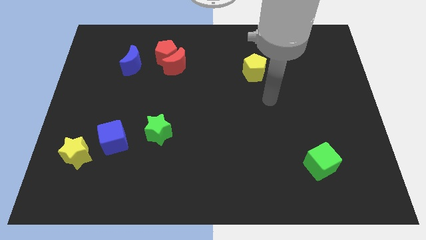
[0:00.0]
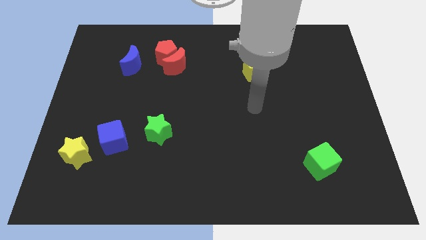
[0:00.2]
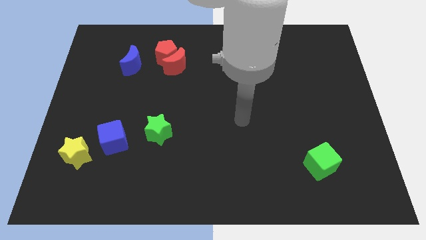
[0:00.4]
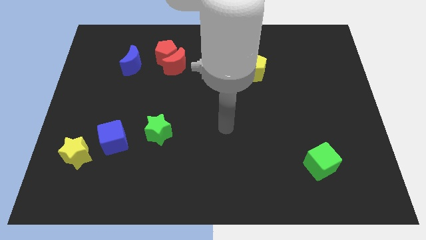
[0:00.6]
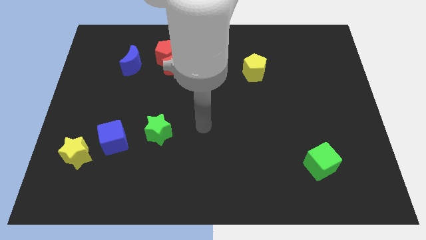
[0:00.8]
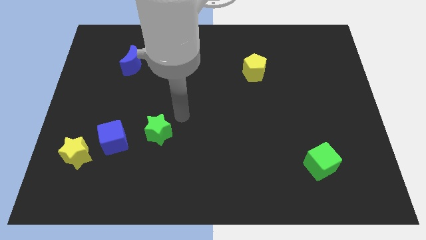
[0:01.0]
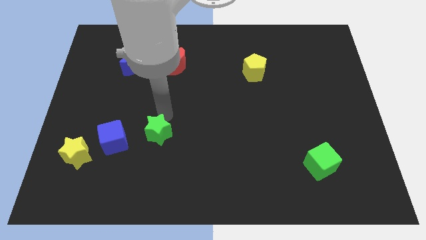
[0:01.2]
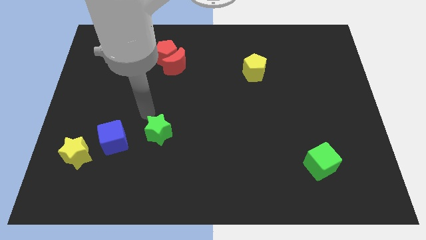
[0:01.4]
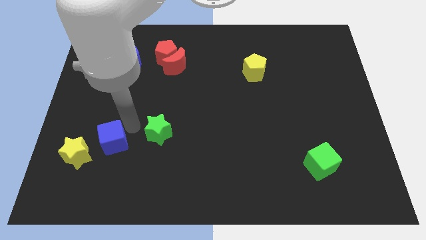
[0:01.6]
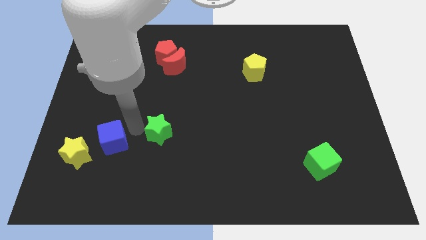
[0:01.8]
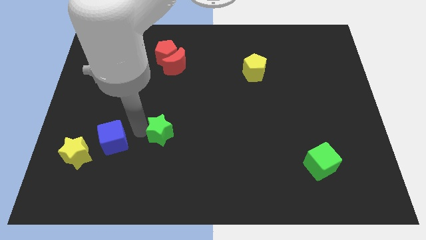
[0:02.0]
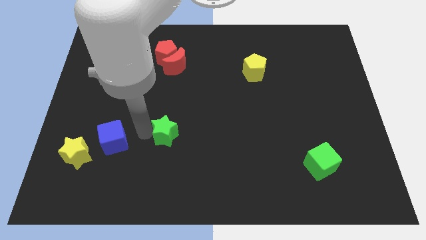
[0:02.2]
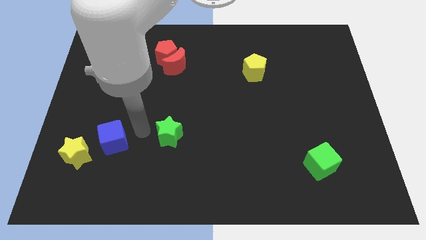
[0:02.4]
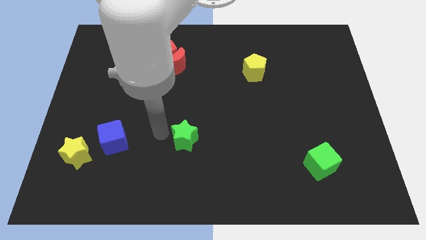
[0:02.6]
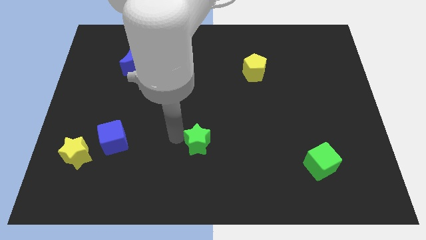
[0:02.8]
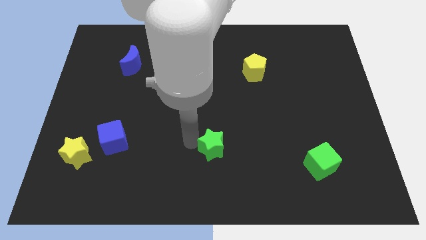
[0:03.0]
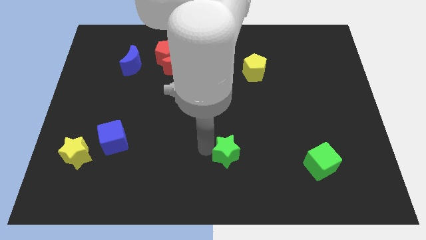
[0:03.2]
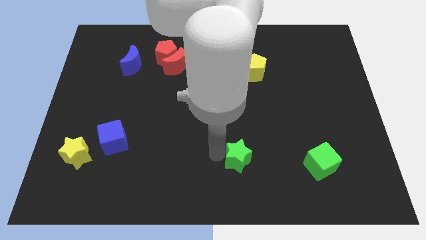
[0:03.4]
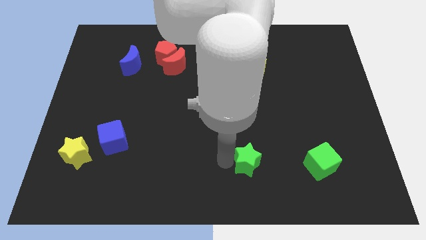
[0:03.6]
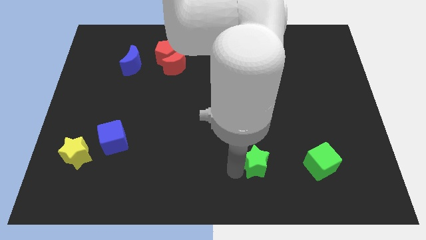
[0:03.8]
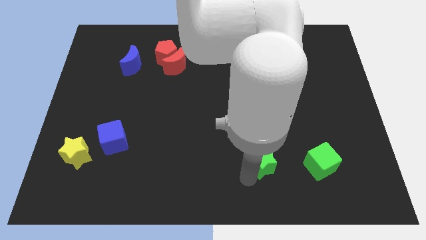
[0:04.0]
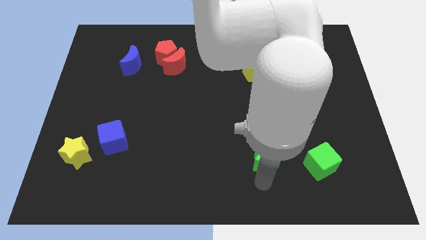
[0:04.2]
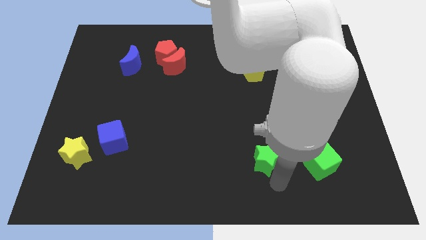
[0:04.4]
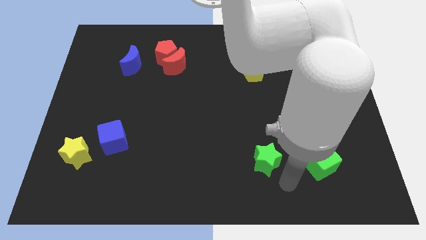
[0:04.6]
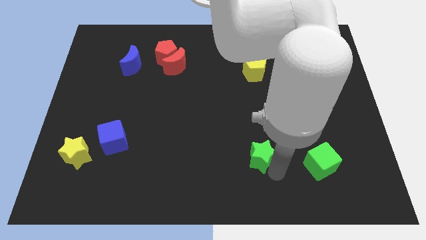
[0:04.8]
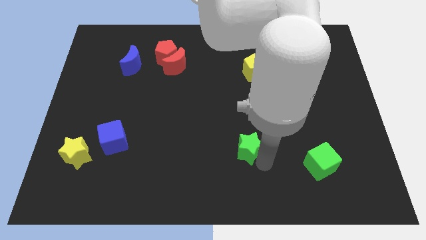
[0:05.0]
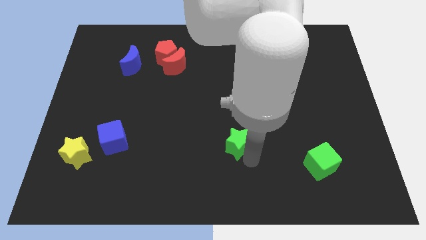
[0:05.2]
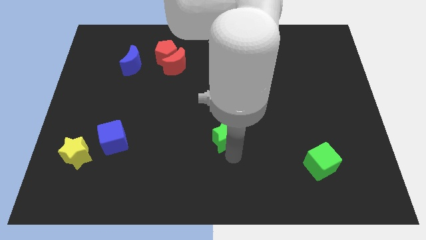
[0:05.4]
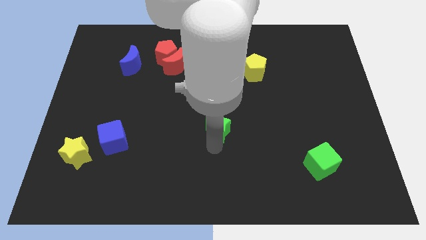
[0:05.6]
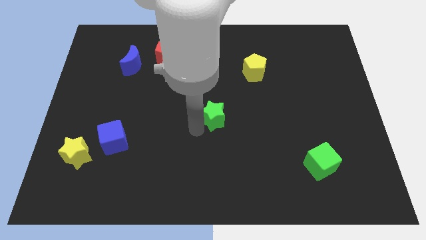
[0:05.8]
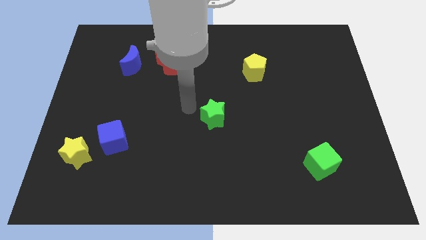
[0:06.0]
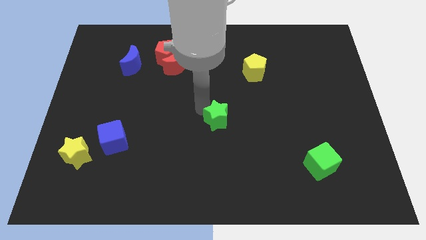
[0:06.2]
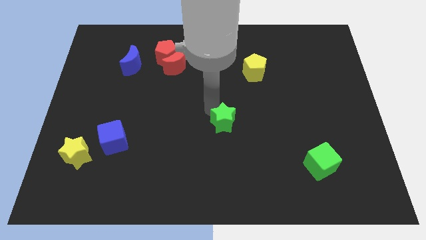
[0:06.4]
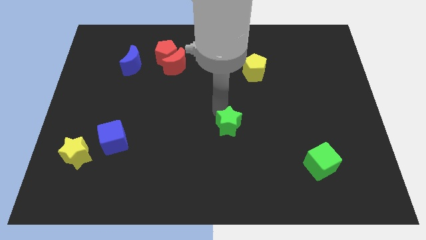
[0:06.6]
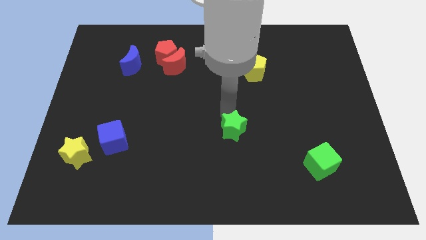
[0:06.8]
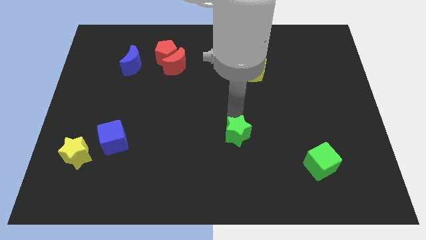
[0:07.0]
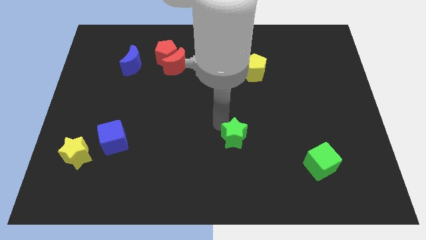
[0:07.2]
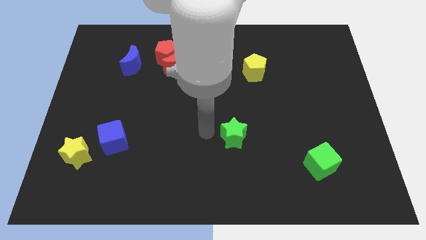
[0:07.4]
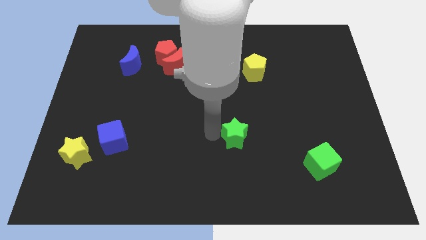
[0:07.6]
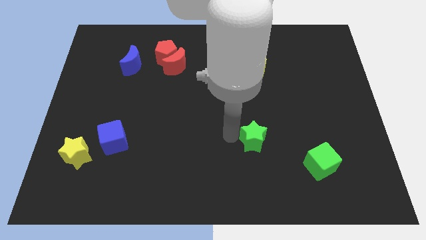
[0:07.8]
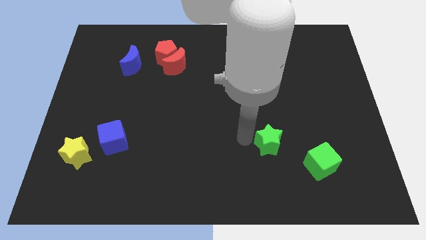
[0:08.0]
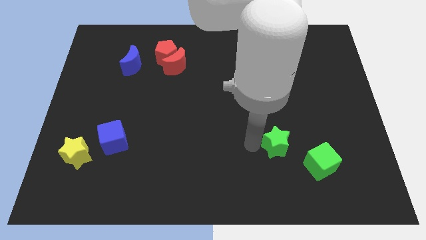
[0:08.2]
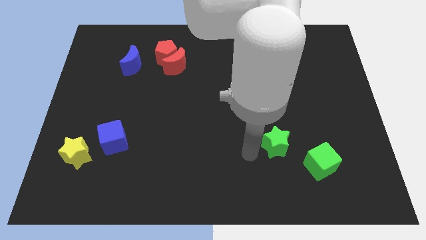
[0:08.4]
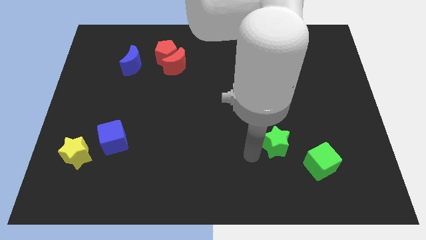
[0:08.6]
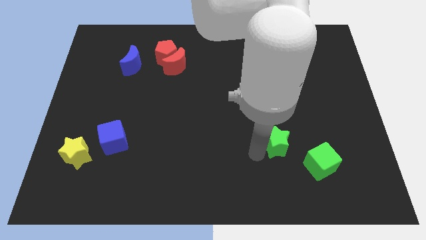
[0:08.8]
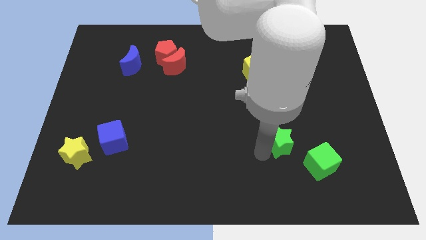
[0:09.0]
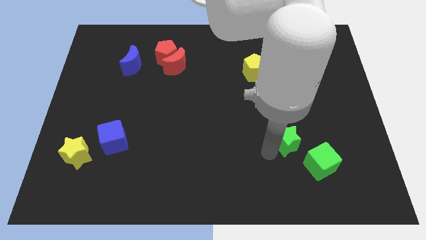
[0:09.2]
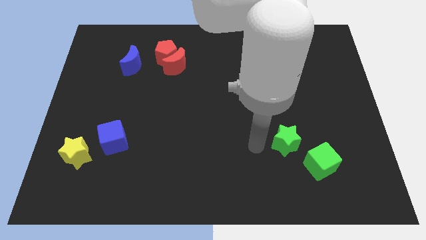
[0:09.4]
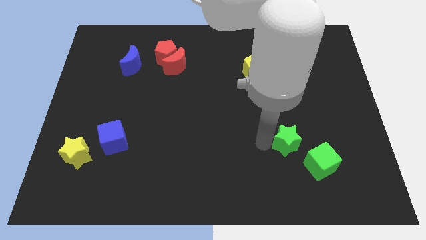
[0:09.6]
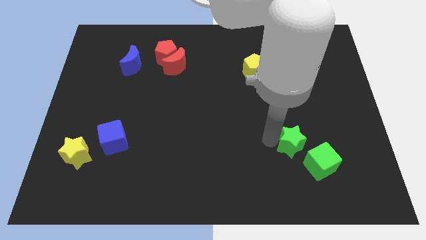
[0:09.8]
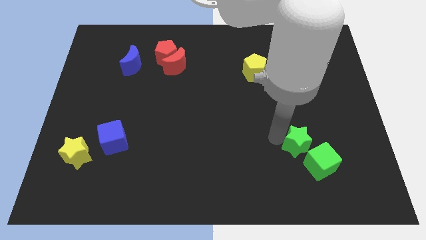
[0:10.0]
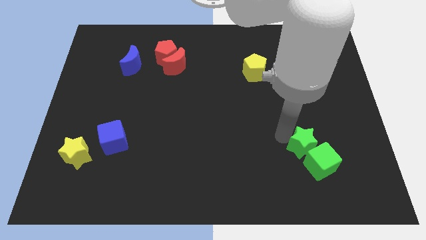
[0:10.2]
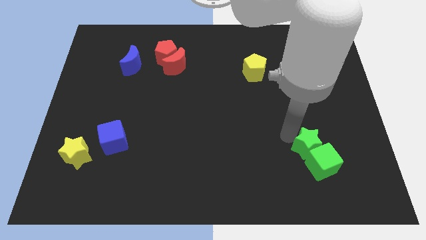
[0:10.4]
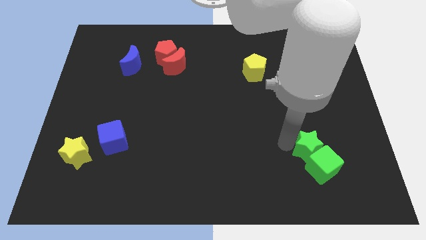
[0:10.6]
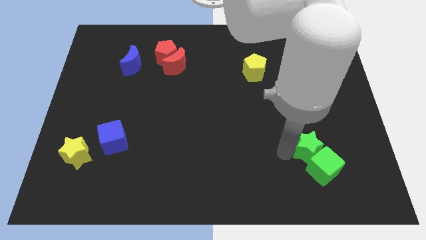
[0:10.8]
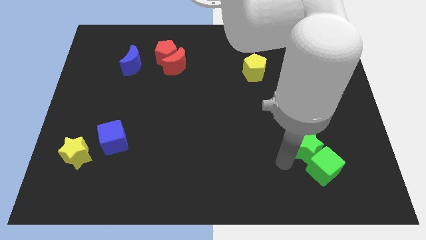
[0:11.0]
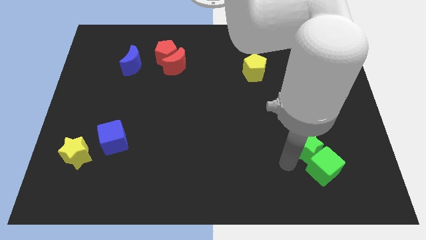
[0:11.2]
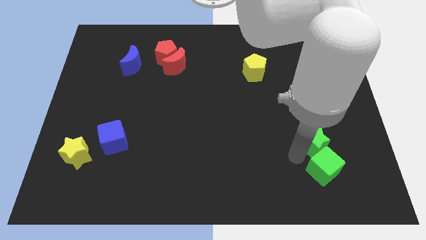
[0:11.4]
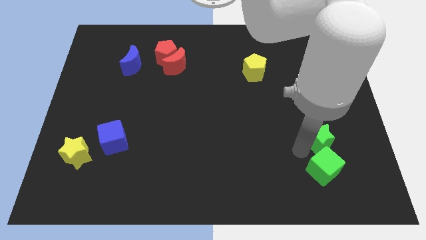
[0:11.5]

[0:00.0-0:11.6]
push the green star to the top right of the green cube

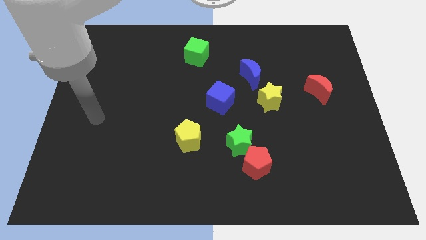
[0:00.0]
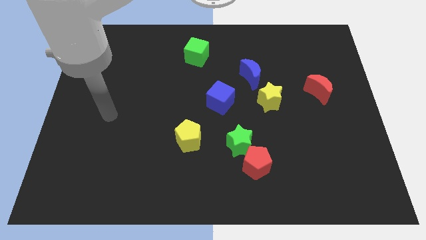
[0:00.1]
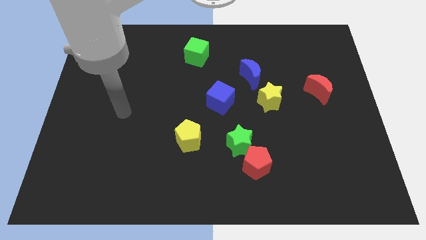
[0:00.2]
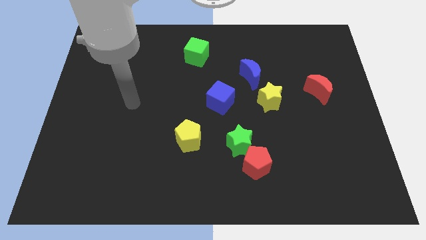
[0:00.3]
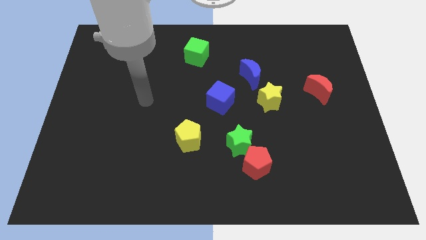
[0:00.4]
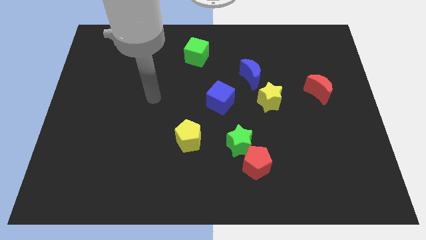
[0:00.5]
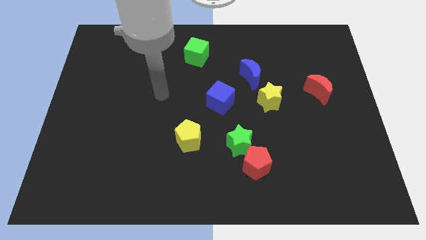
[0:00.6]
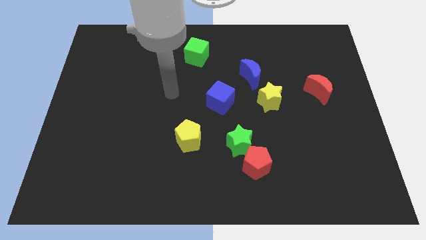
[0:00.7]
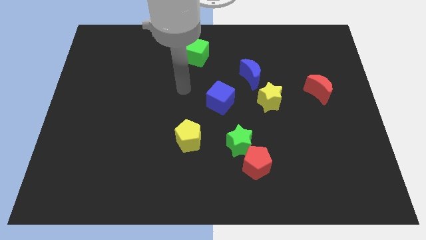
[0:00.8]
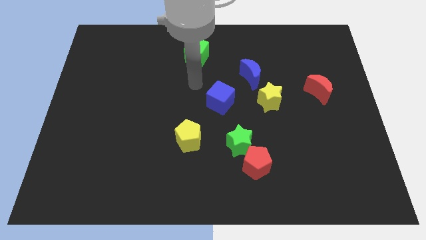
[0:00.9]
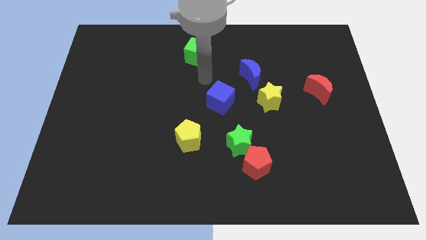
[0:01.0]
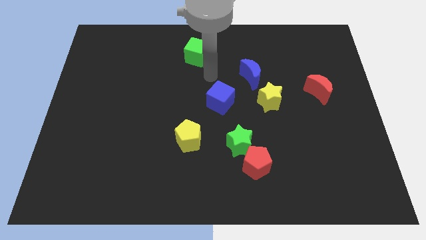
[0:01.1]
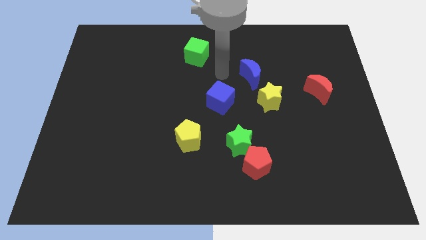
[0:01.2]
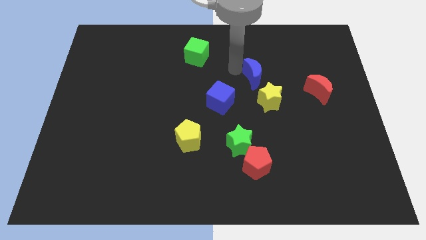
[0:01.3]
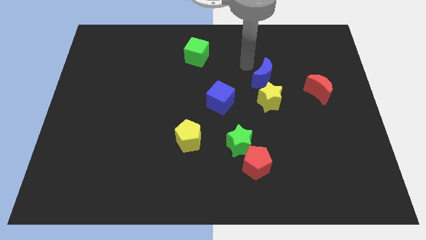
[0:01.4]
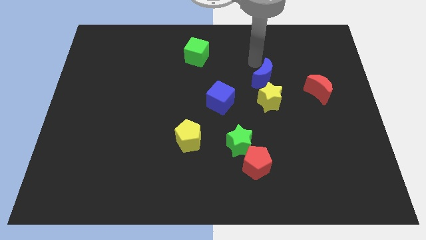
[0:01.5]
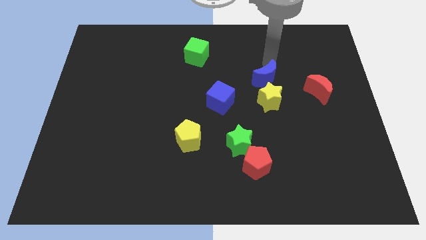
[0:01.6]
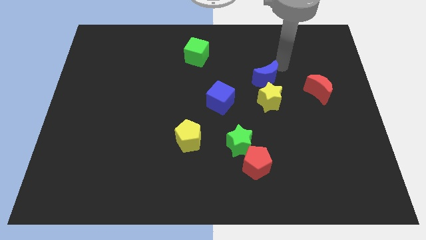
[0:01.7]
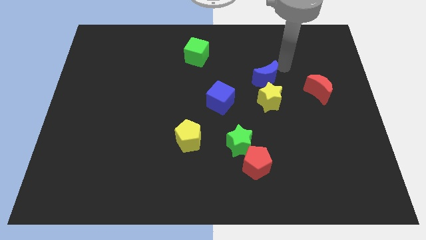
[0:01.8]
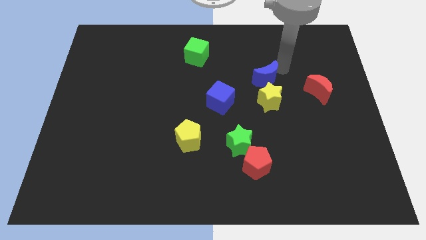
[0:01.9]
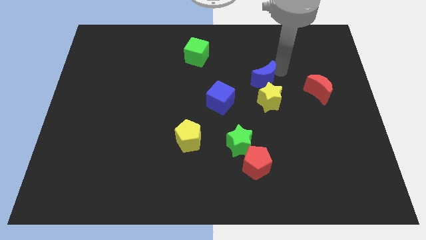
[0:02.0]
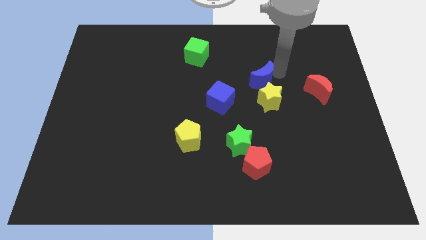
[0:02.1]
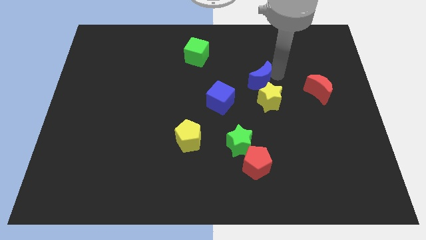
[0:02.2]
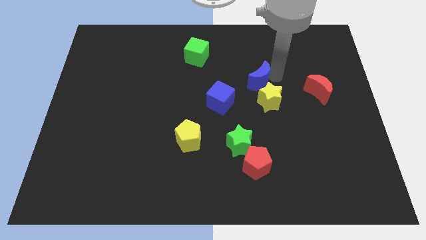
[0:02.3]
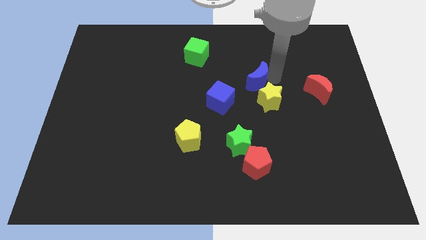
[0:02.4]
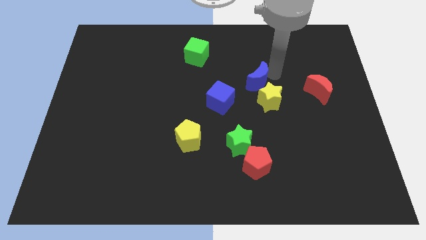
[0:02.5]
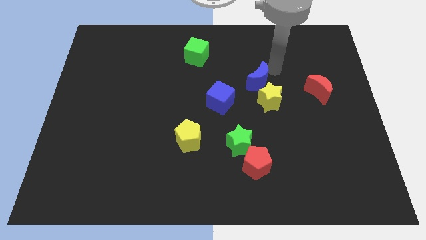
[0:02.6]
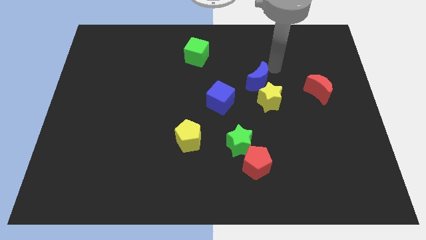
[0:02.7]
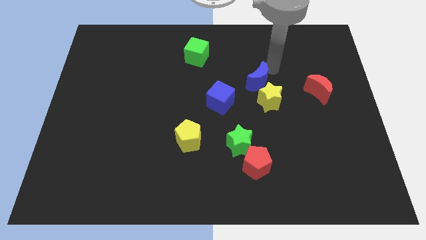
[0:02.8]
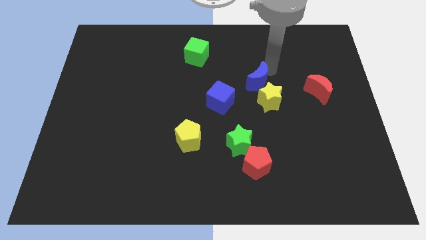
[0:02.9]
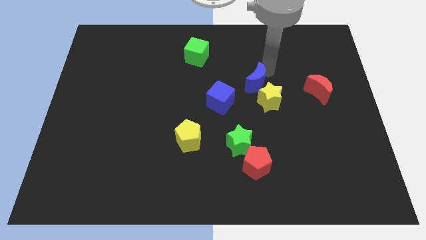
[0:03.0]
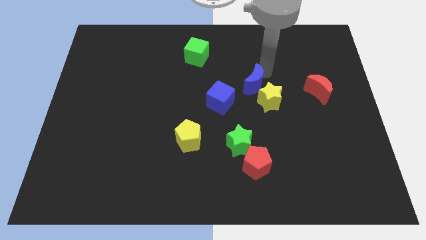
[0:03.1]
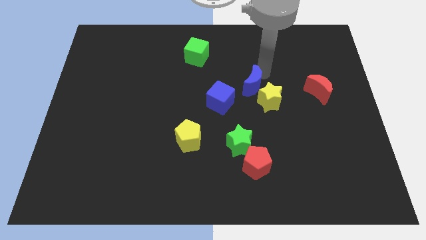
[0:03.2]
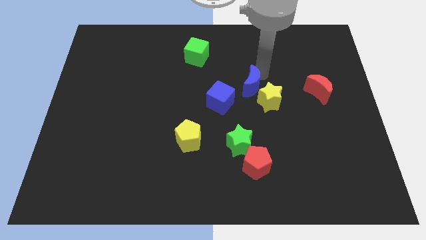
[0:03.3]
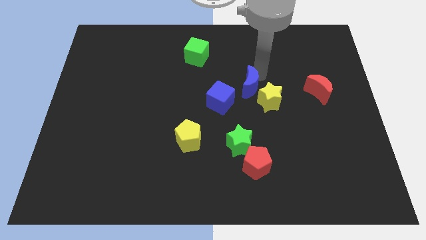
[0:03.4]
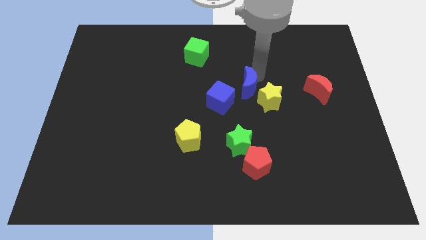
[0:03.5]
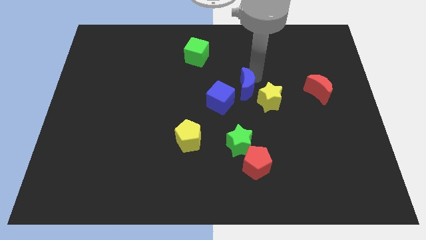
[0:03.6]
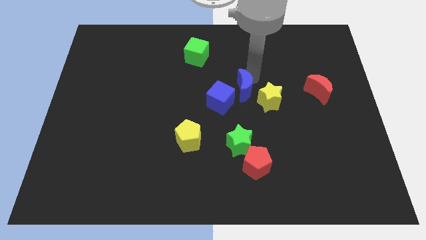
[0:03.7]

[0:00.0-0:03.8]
move the blue moon to the top of the green star
